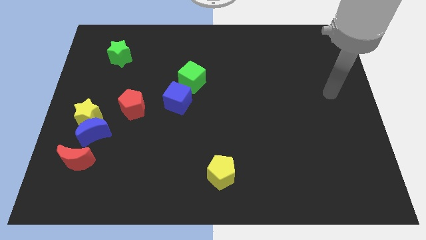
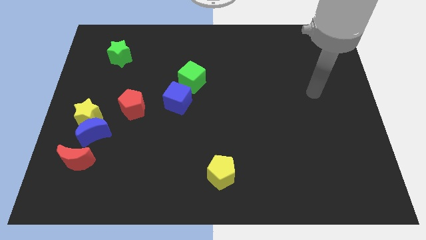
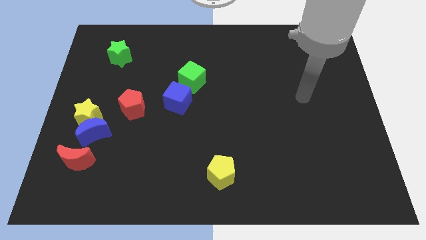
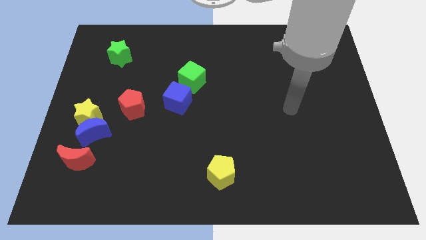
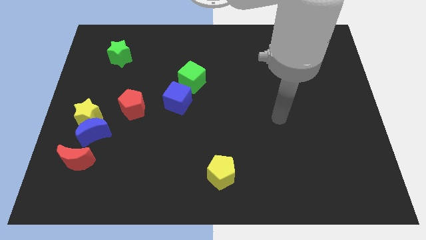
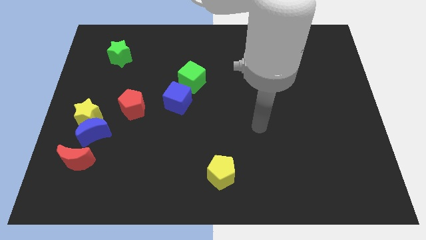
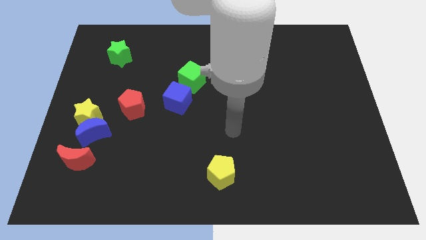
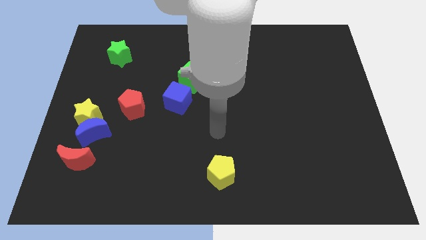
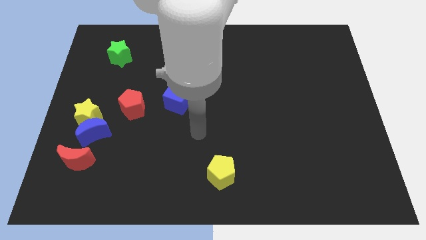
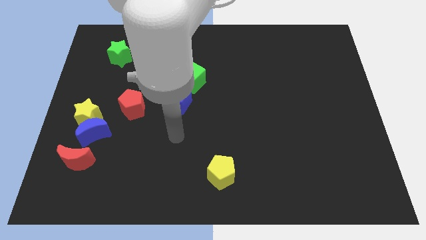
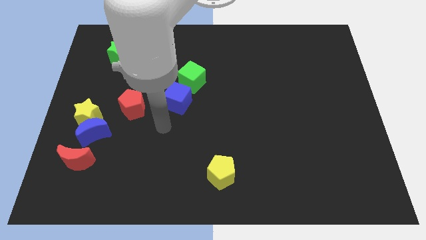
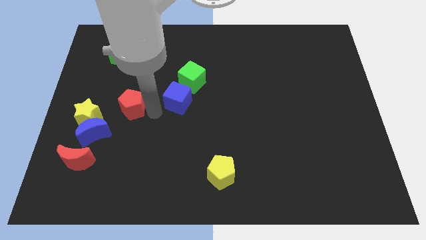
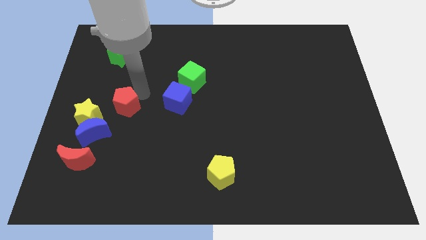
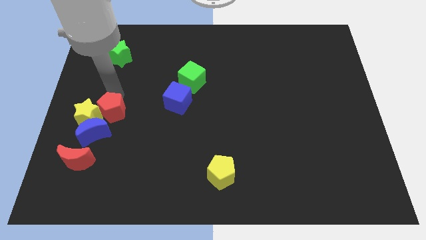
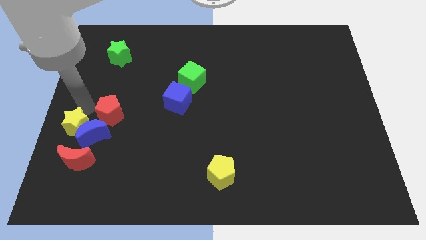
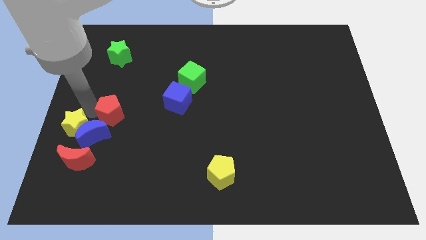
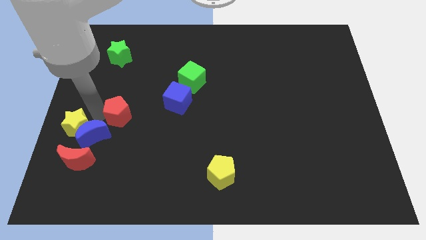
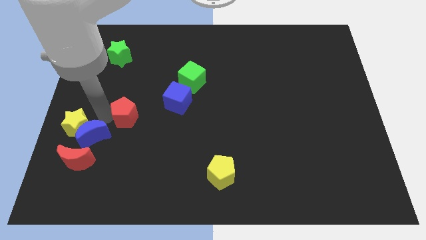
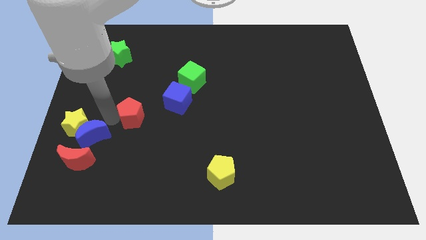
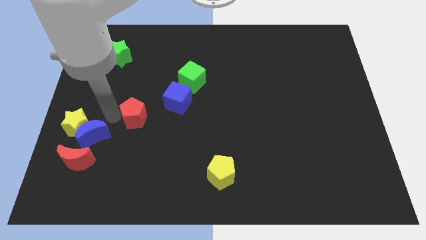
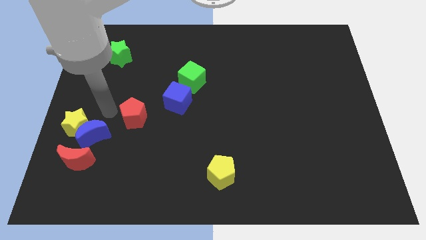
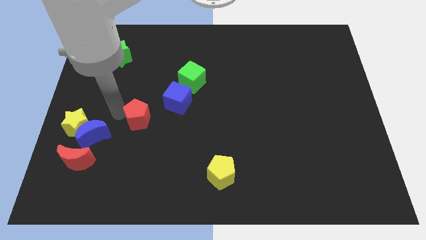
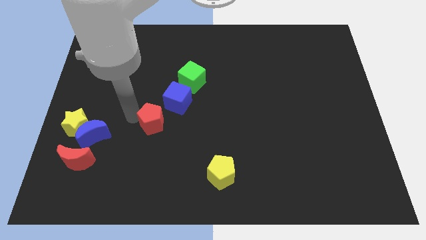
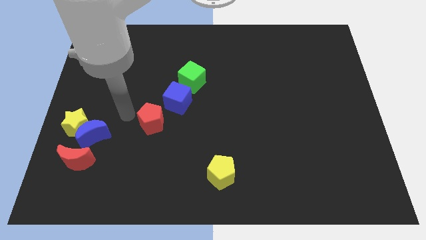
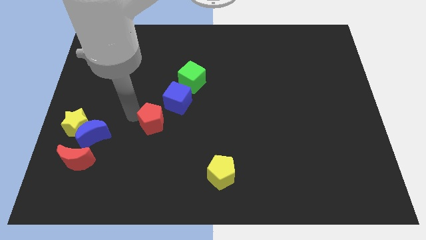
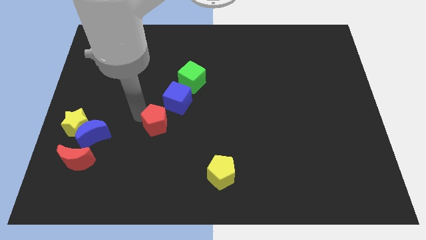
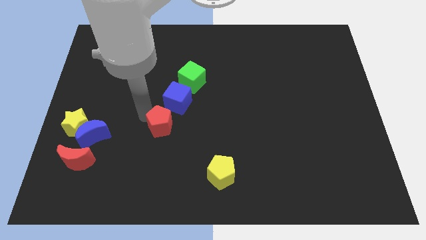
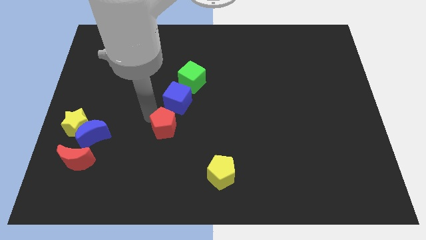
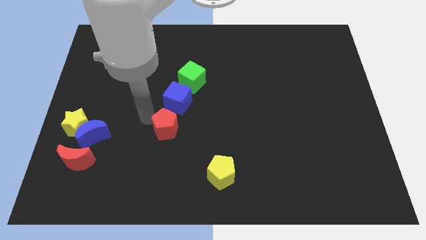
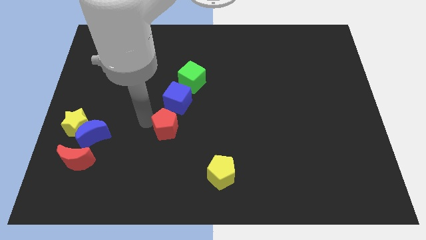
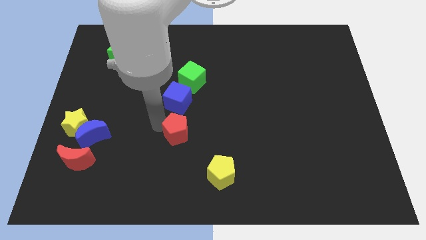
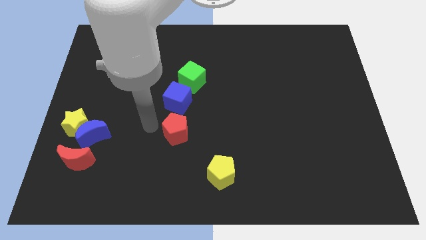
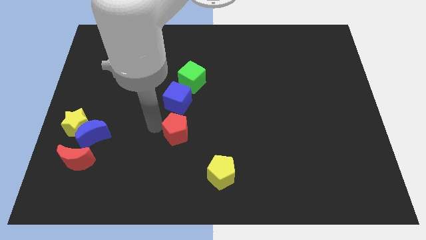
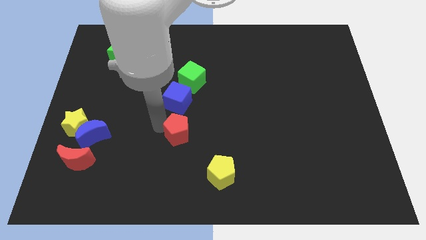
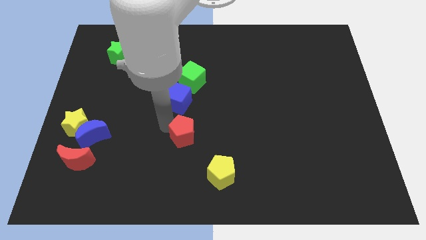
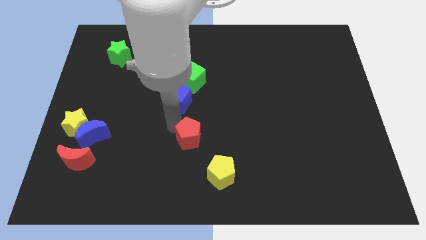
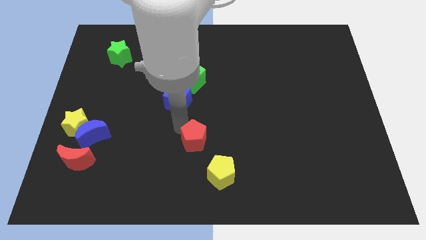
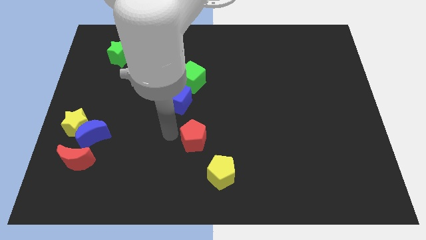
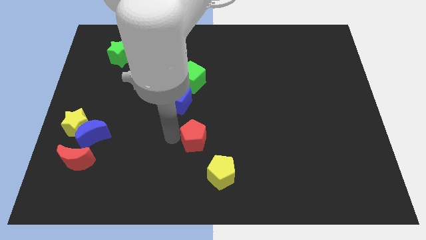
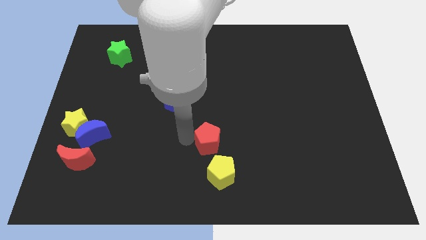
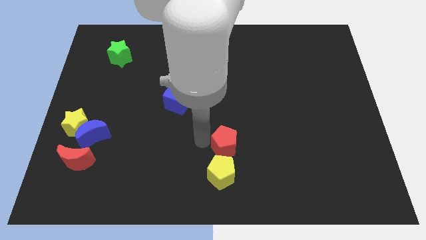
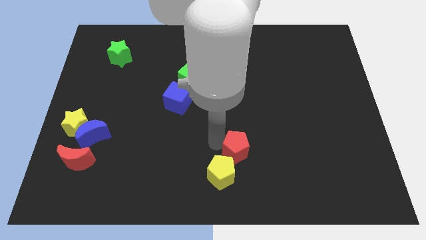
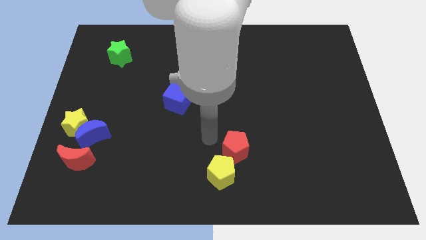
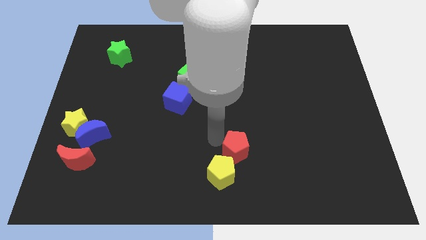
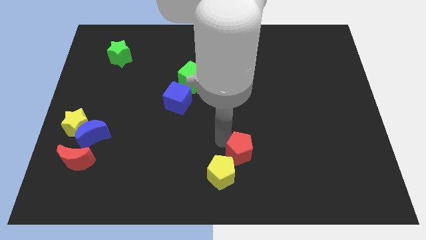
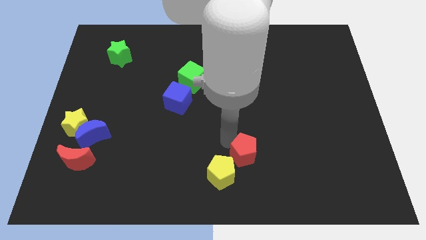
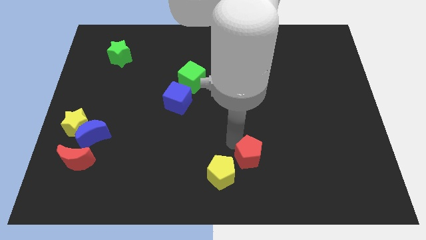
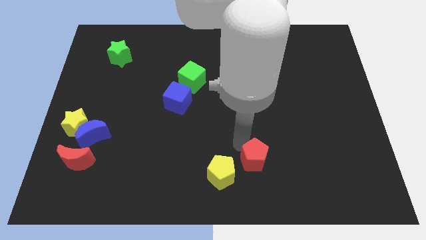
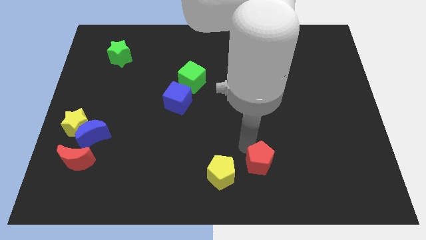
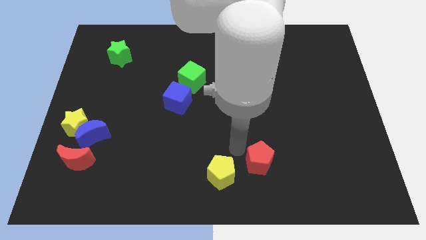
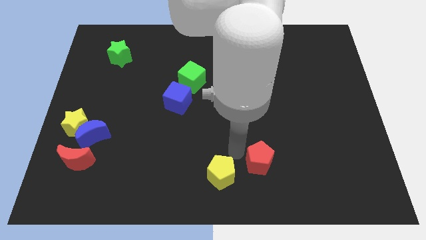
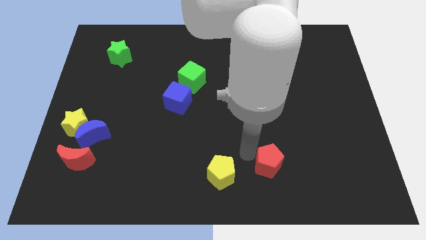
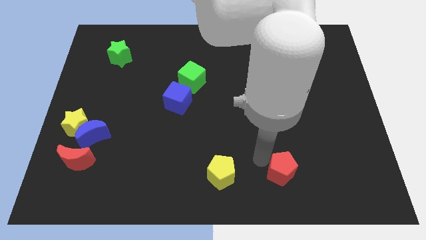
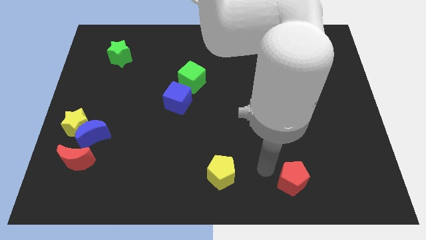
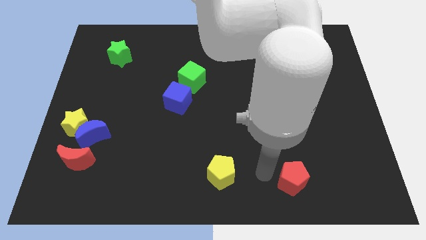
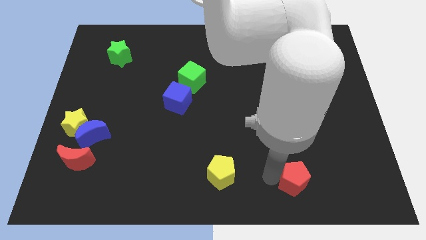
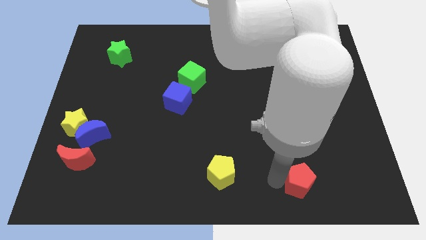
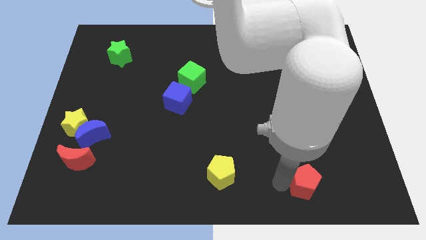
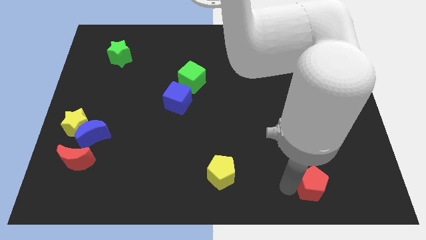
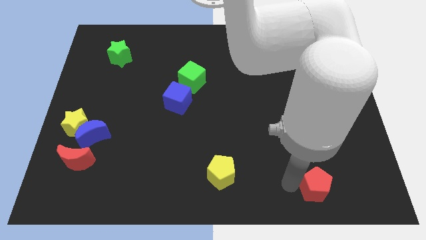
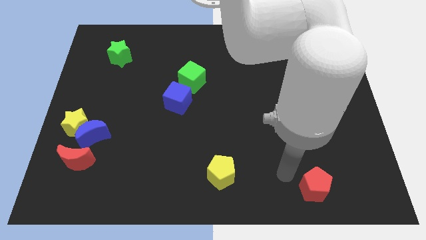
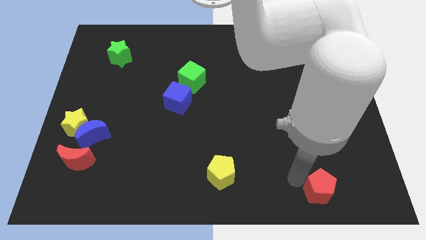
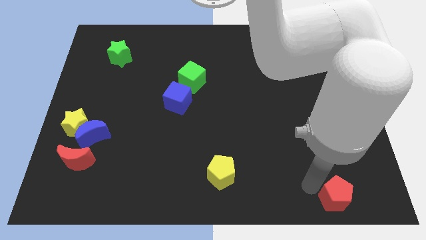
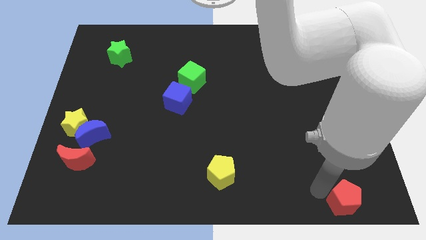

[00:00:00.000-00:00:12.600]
move the red pentagon to the lower right corner
